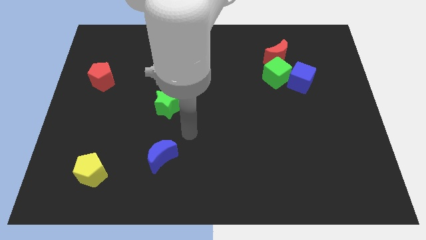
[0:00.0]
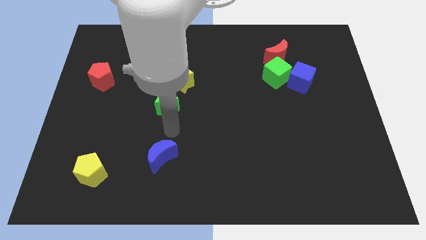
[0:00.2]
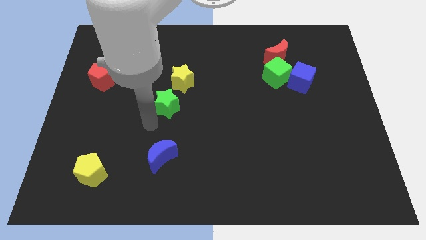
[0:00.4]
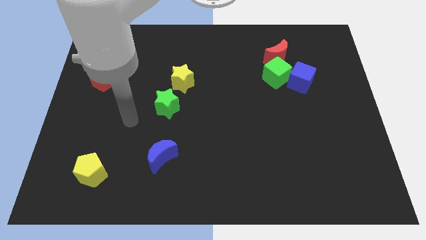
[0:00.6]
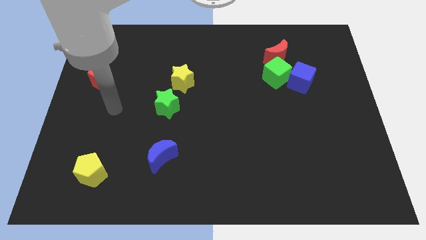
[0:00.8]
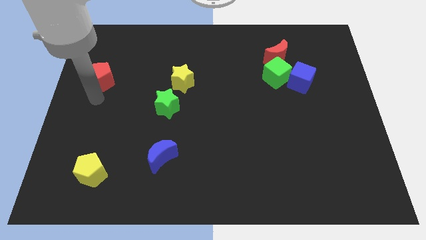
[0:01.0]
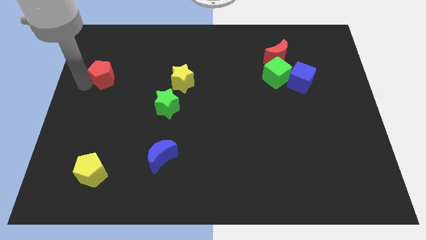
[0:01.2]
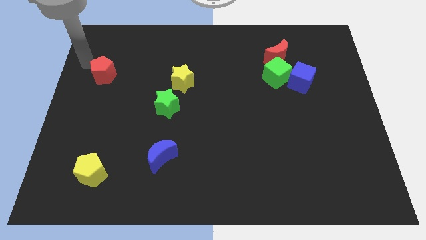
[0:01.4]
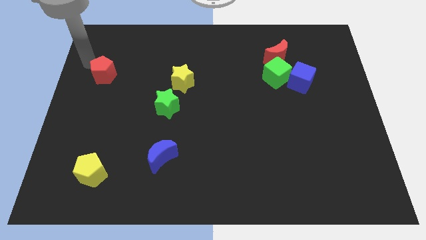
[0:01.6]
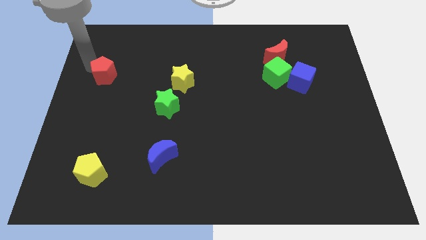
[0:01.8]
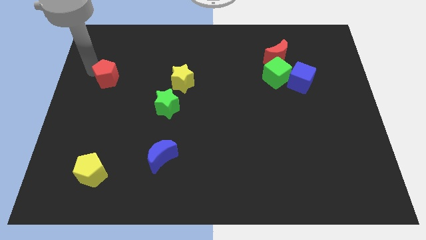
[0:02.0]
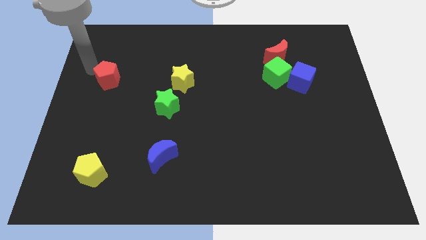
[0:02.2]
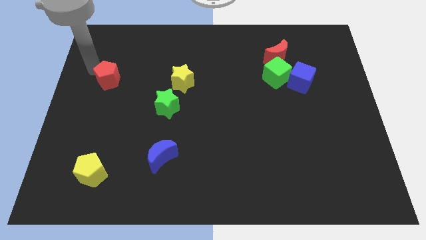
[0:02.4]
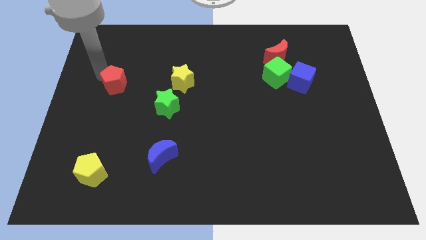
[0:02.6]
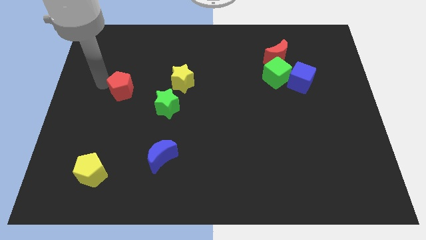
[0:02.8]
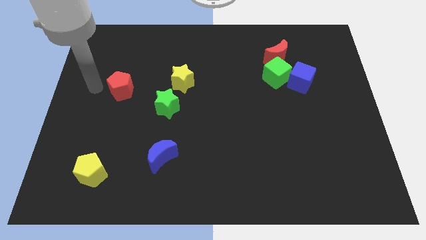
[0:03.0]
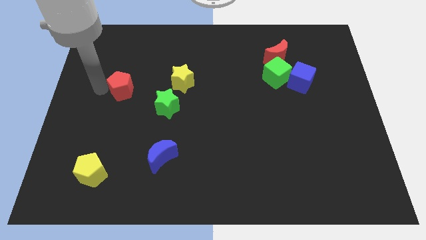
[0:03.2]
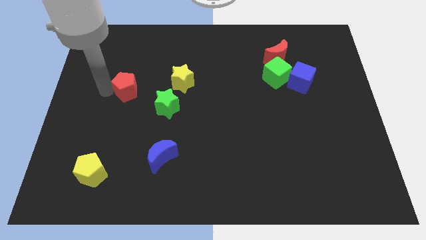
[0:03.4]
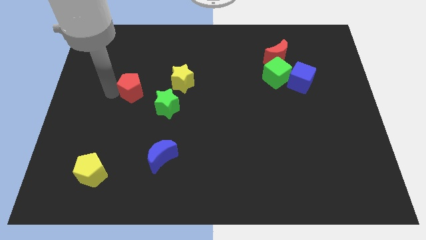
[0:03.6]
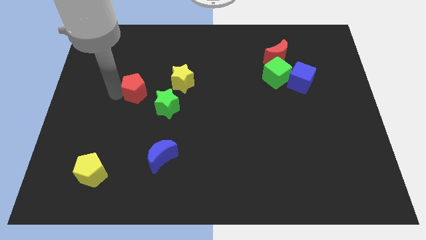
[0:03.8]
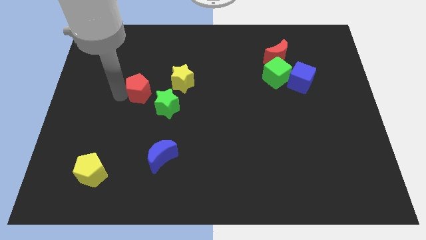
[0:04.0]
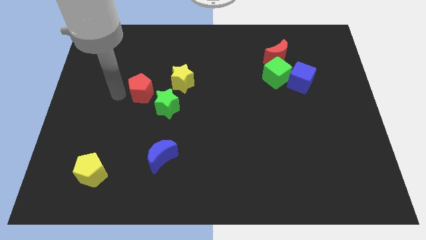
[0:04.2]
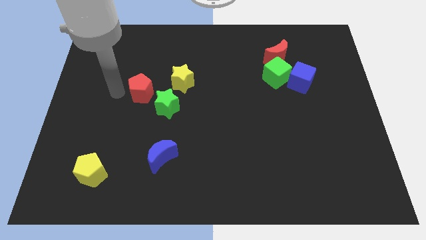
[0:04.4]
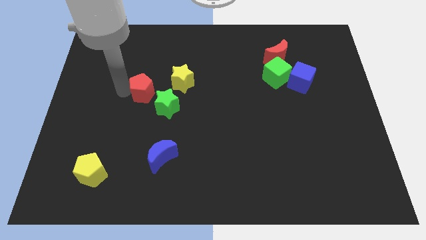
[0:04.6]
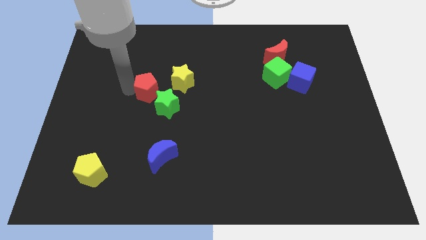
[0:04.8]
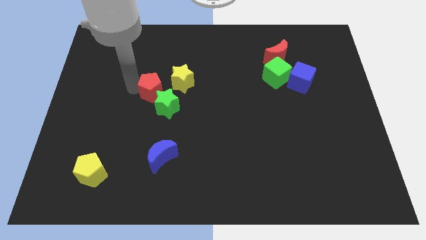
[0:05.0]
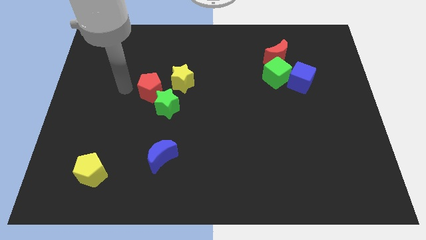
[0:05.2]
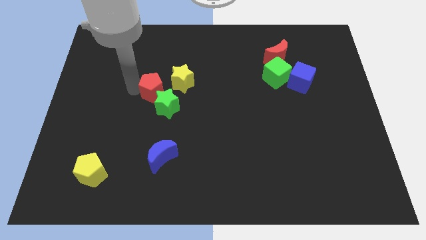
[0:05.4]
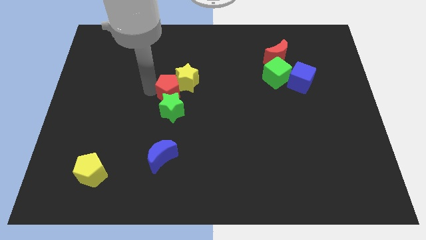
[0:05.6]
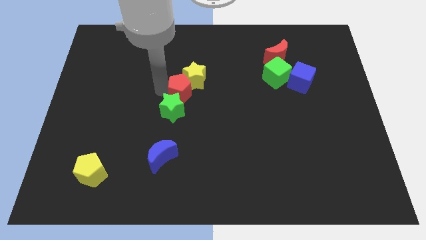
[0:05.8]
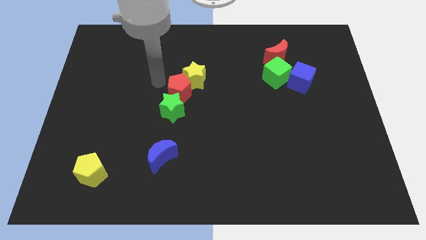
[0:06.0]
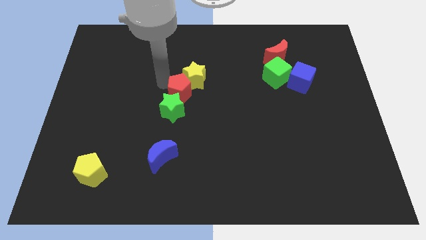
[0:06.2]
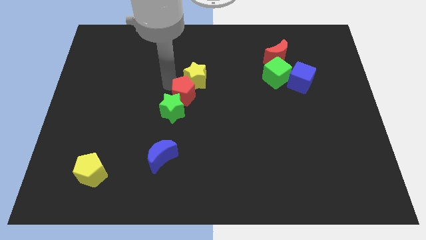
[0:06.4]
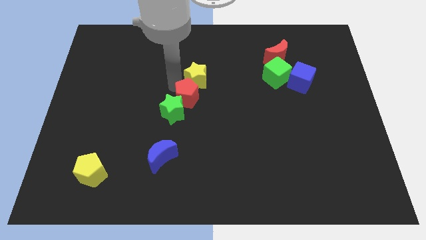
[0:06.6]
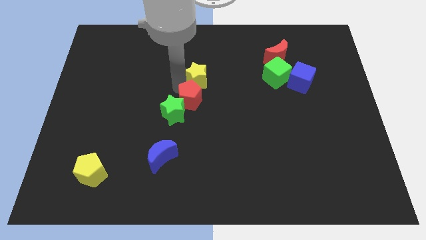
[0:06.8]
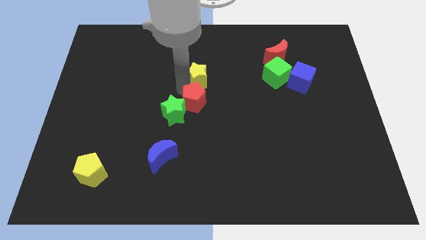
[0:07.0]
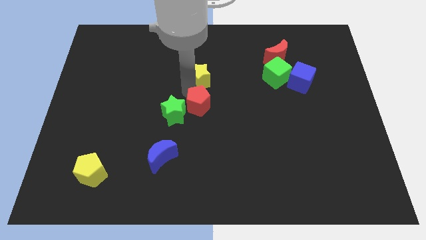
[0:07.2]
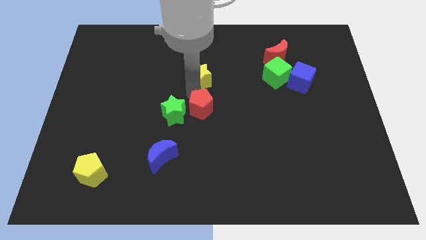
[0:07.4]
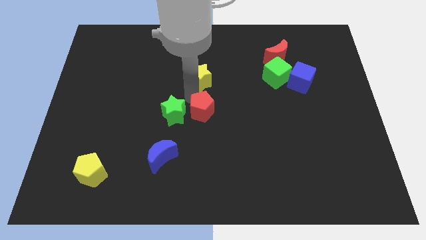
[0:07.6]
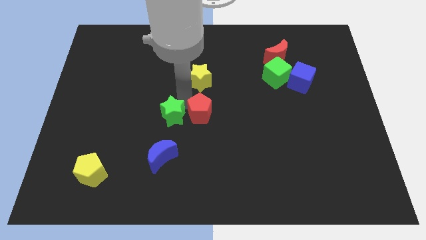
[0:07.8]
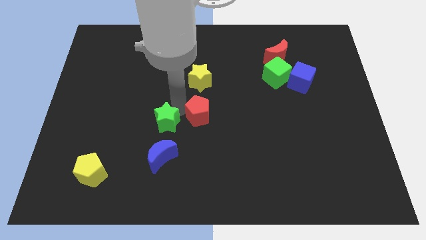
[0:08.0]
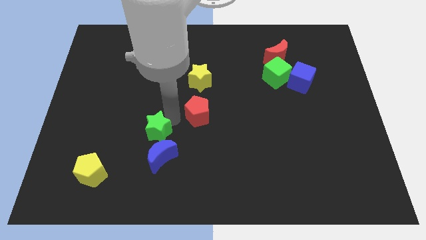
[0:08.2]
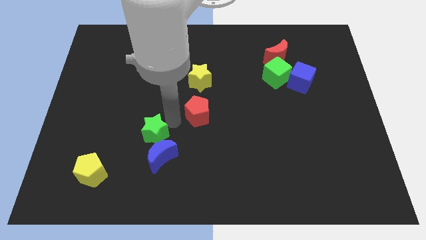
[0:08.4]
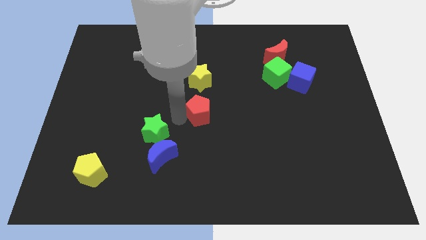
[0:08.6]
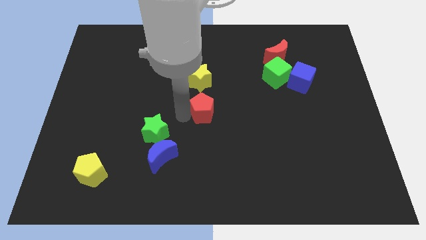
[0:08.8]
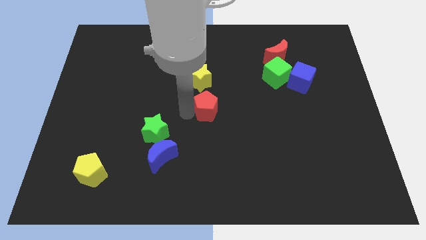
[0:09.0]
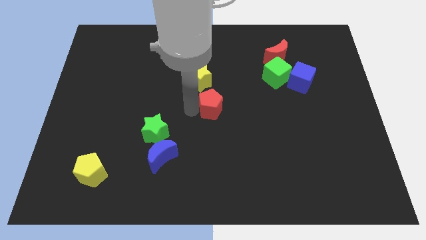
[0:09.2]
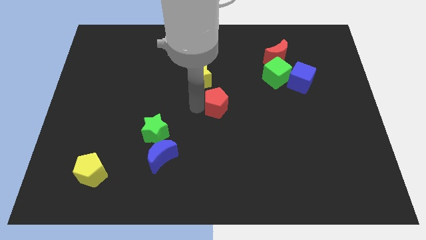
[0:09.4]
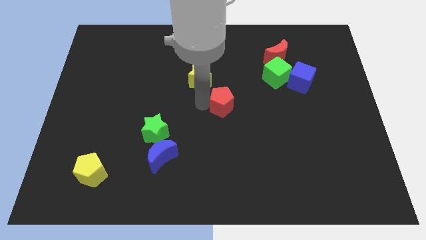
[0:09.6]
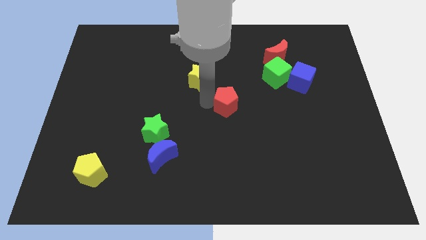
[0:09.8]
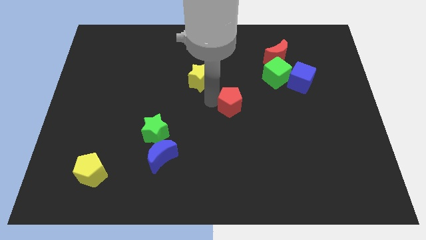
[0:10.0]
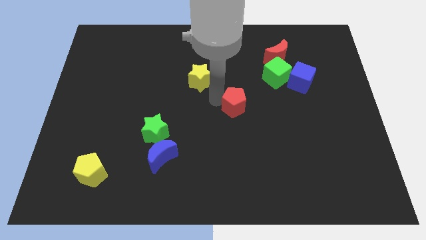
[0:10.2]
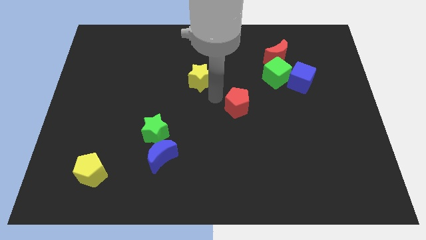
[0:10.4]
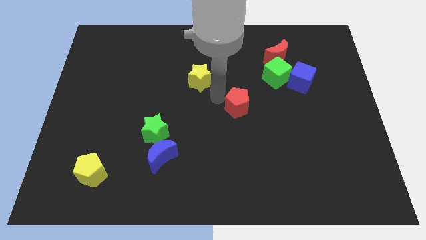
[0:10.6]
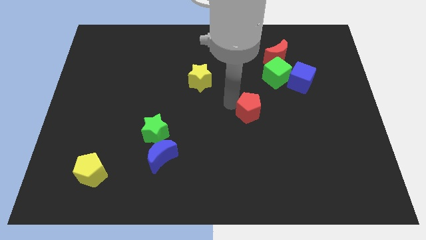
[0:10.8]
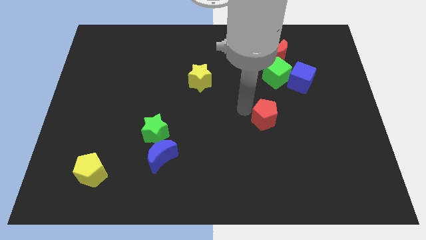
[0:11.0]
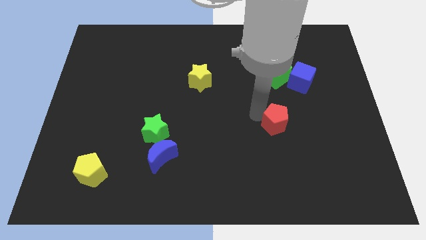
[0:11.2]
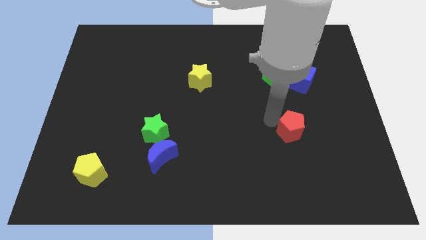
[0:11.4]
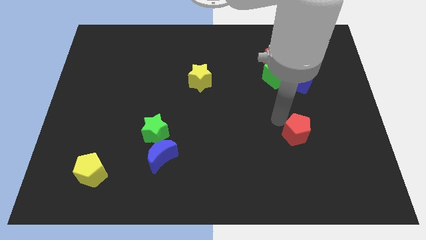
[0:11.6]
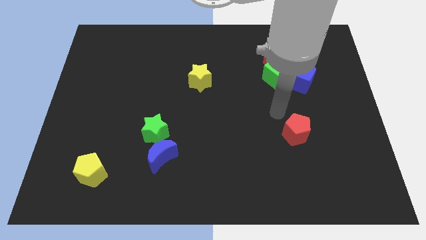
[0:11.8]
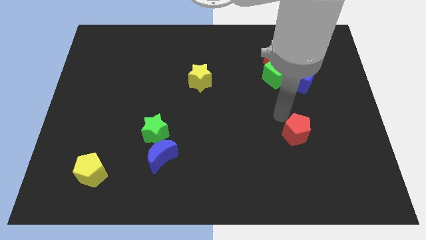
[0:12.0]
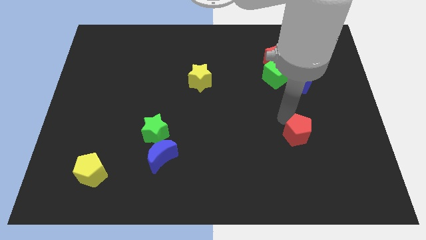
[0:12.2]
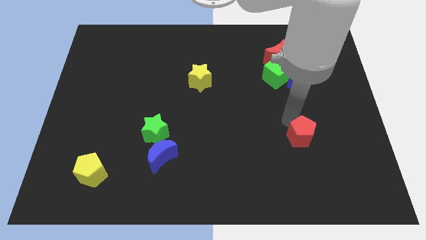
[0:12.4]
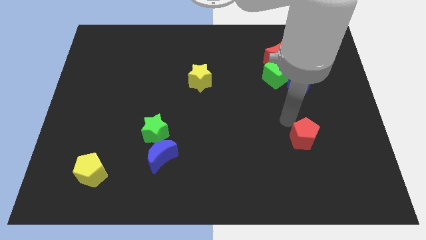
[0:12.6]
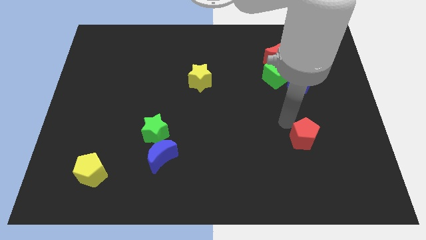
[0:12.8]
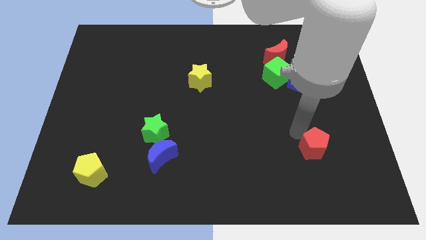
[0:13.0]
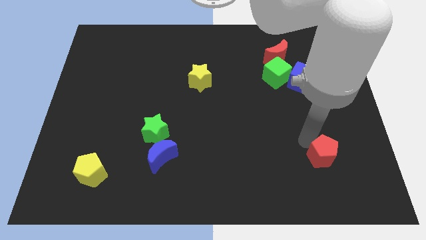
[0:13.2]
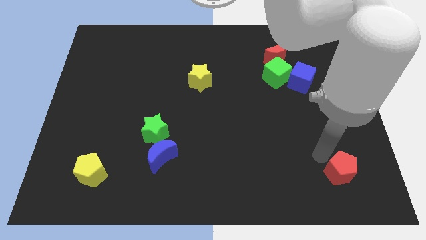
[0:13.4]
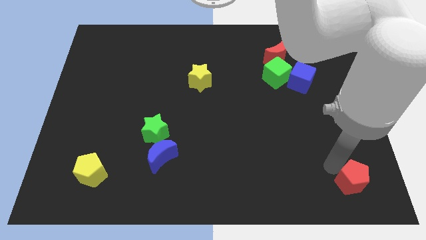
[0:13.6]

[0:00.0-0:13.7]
put the red pentagon to the bottom right corner
